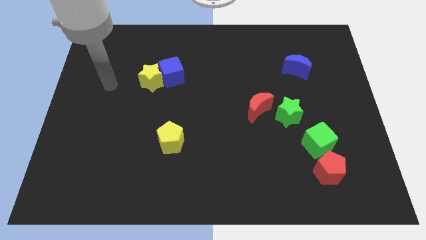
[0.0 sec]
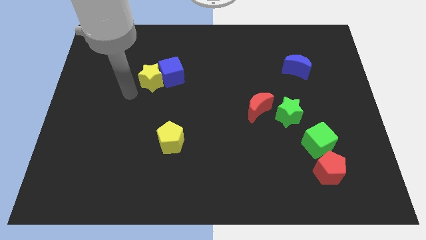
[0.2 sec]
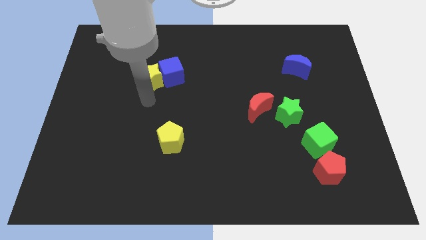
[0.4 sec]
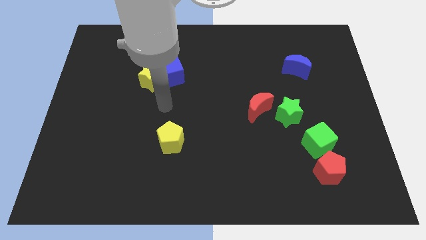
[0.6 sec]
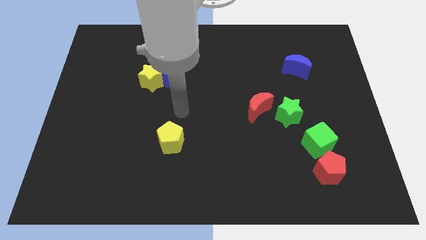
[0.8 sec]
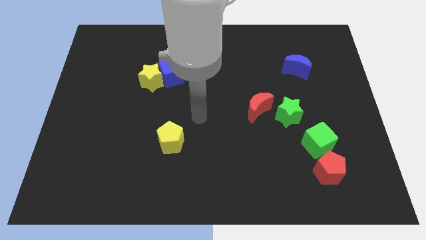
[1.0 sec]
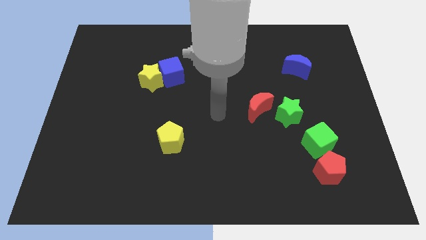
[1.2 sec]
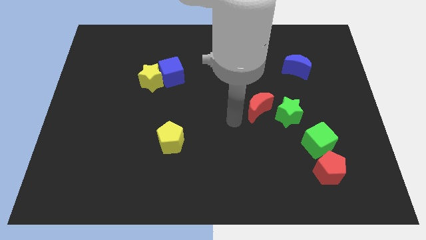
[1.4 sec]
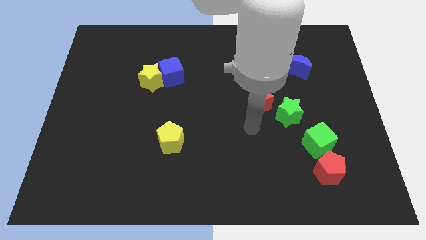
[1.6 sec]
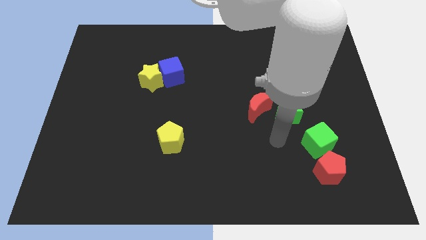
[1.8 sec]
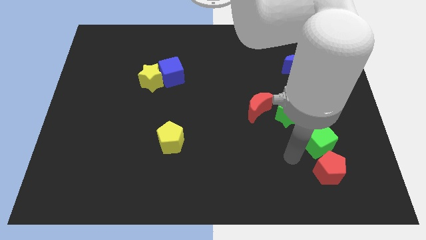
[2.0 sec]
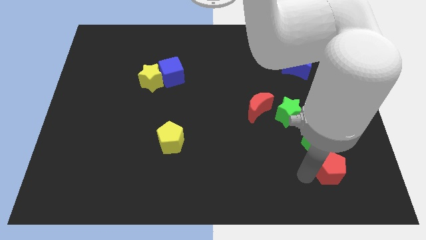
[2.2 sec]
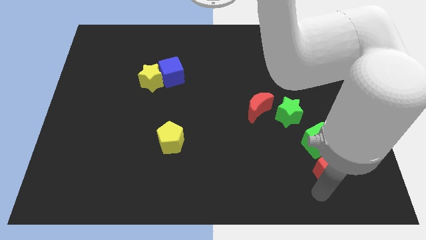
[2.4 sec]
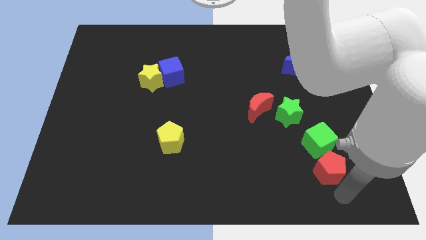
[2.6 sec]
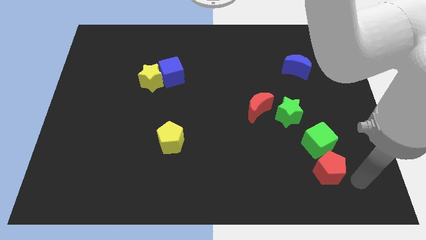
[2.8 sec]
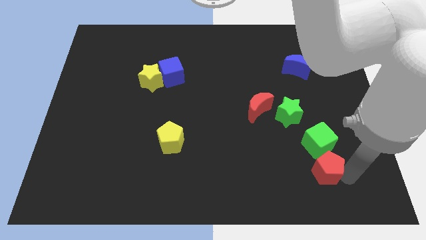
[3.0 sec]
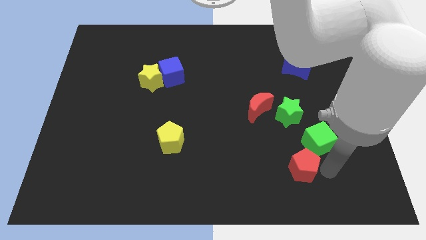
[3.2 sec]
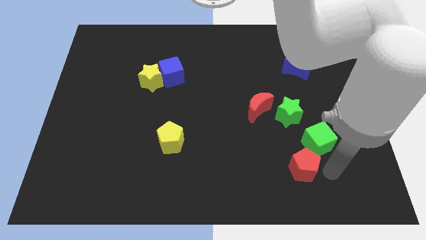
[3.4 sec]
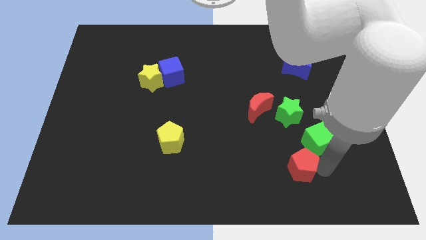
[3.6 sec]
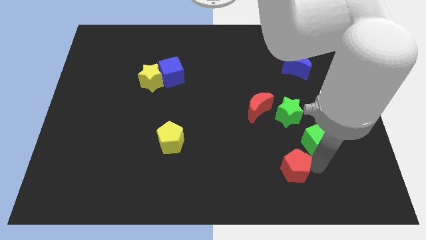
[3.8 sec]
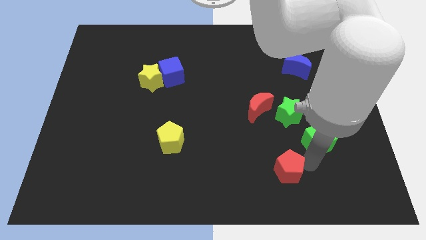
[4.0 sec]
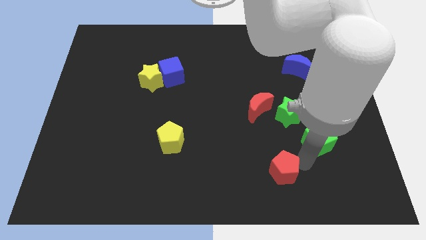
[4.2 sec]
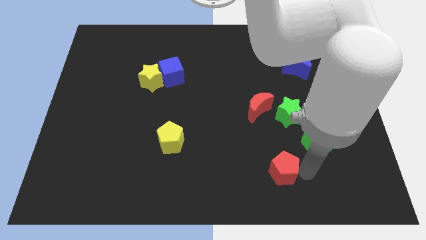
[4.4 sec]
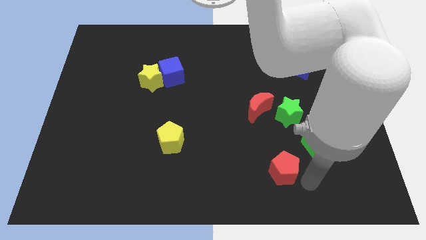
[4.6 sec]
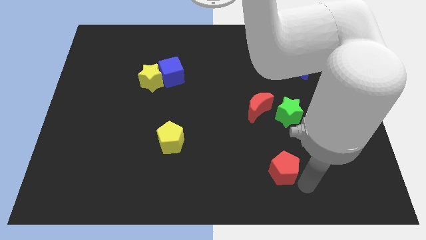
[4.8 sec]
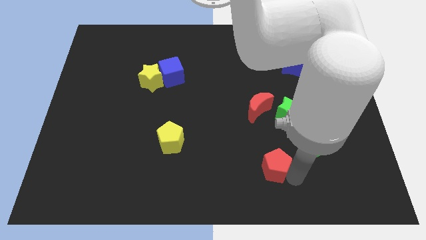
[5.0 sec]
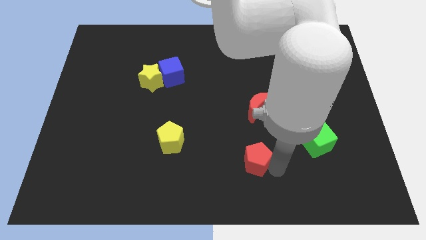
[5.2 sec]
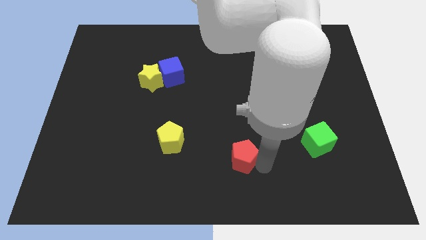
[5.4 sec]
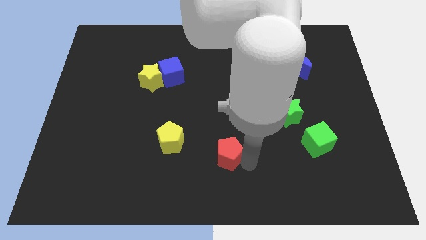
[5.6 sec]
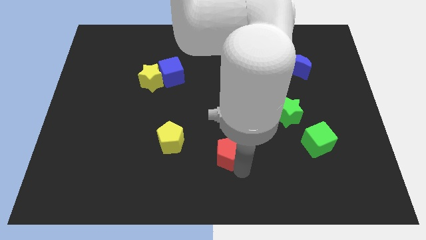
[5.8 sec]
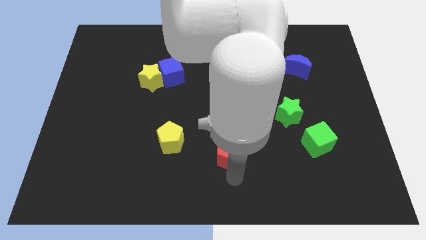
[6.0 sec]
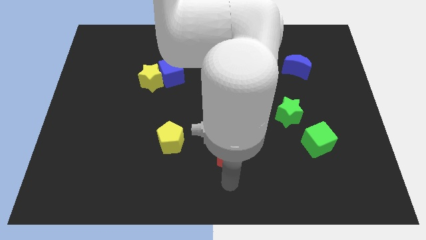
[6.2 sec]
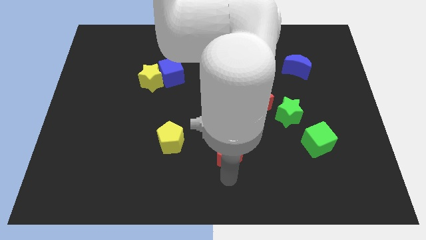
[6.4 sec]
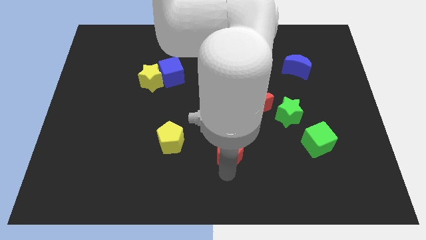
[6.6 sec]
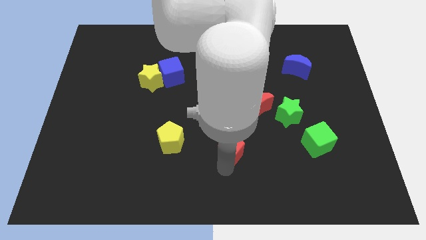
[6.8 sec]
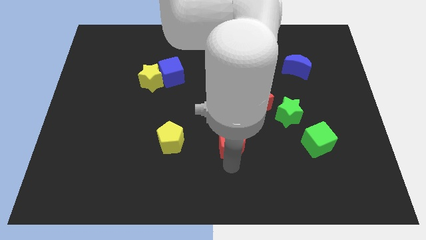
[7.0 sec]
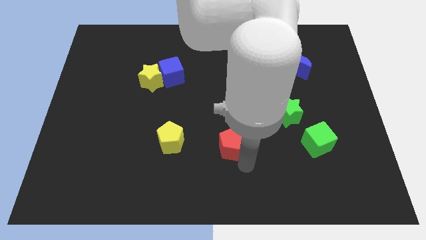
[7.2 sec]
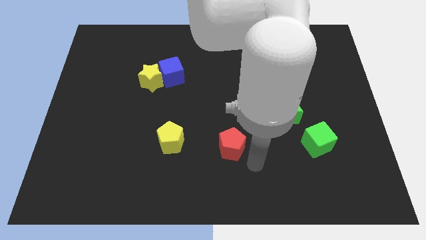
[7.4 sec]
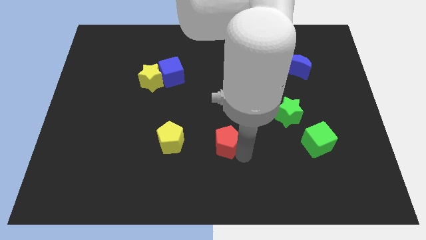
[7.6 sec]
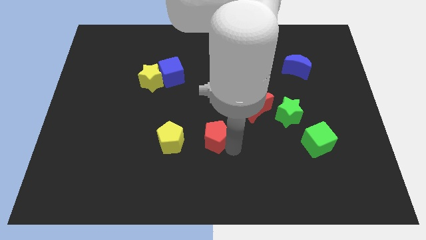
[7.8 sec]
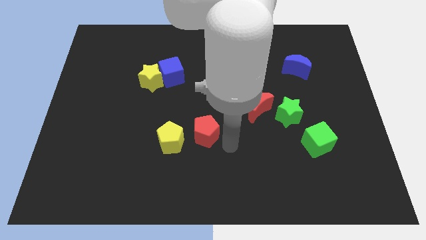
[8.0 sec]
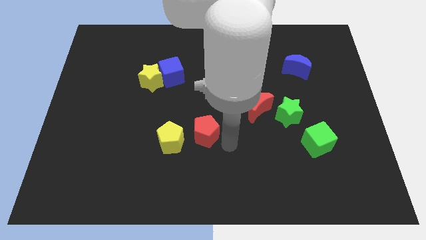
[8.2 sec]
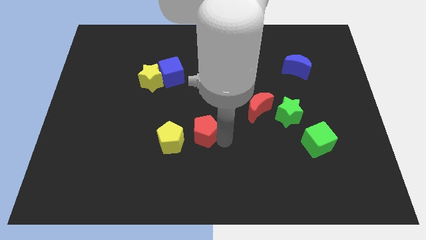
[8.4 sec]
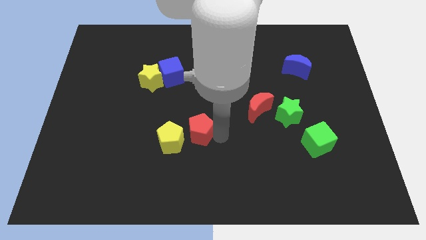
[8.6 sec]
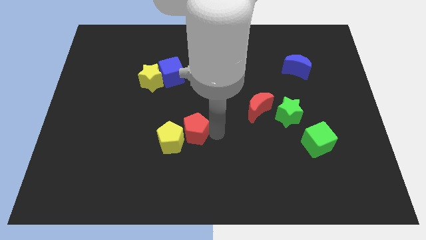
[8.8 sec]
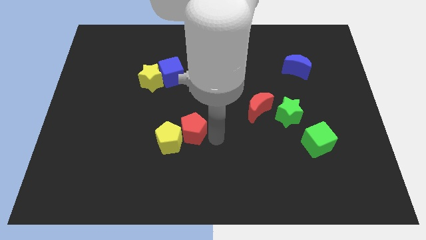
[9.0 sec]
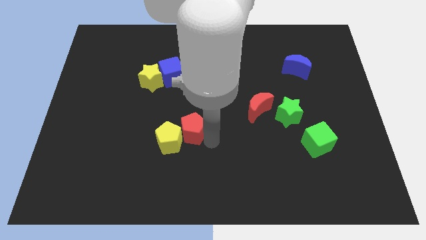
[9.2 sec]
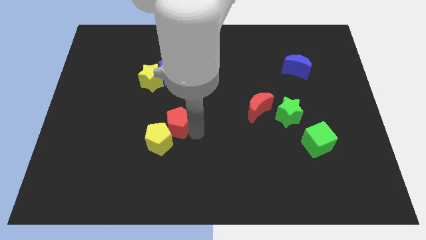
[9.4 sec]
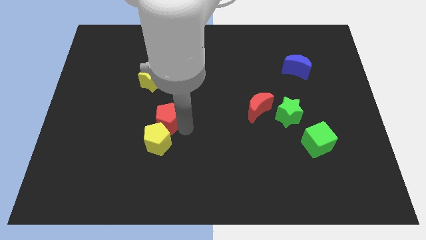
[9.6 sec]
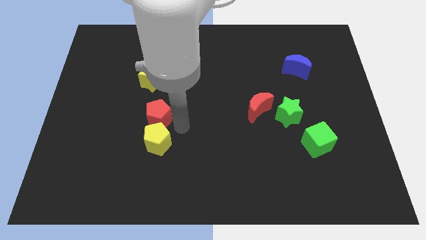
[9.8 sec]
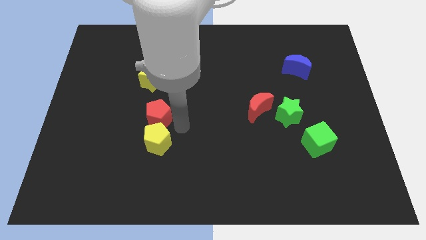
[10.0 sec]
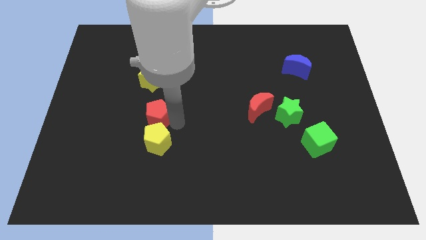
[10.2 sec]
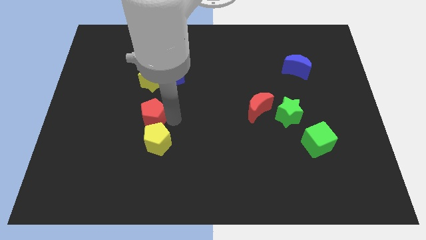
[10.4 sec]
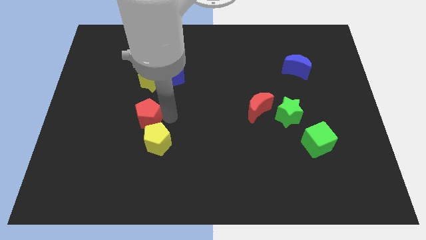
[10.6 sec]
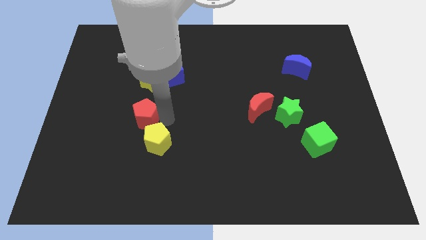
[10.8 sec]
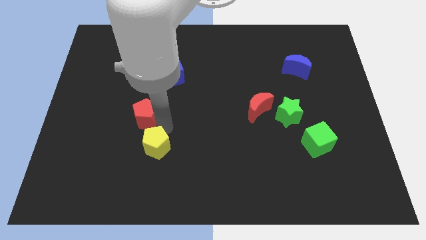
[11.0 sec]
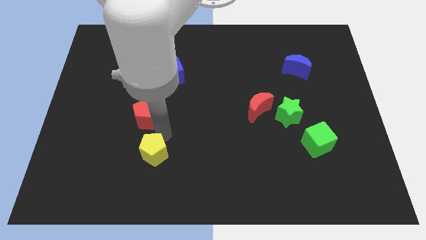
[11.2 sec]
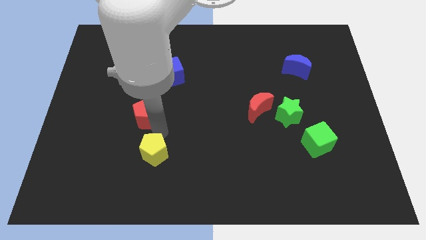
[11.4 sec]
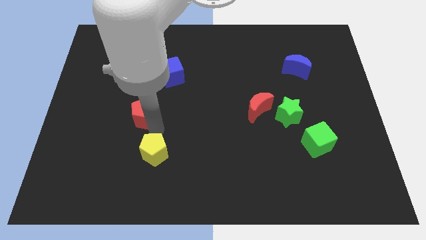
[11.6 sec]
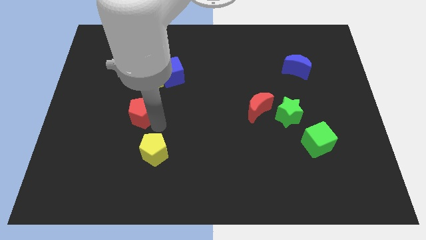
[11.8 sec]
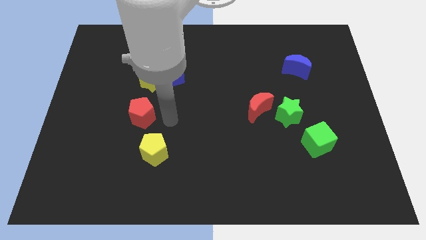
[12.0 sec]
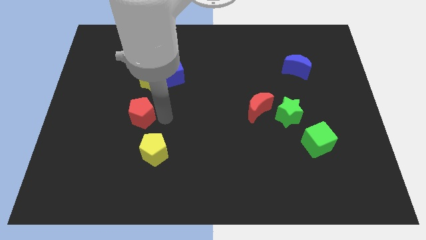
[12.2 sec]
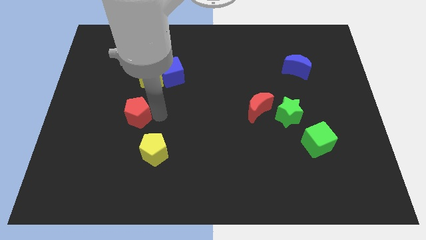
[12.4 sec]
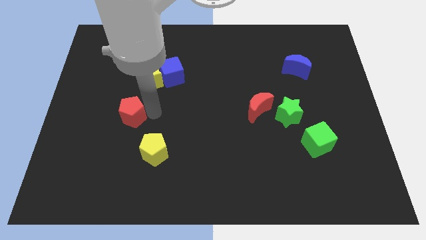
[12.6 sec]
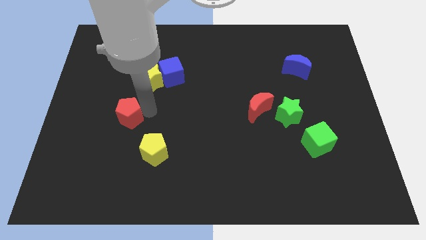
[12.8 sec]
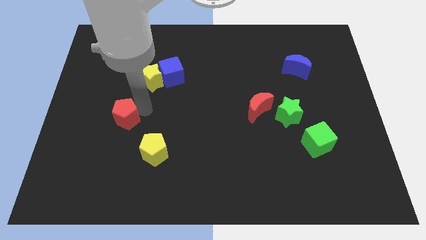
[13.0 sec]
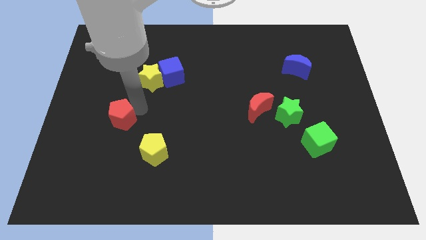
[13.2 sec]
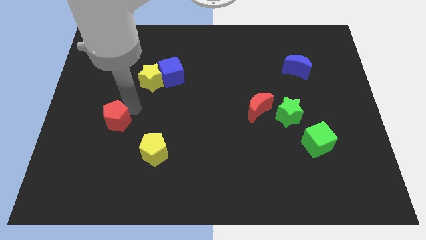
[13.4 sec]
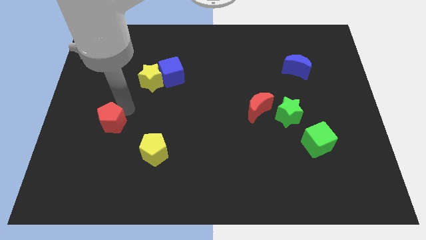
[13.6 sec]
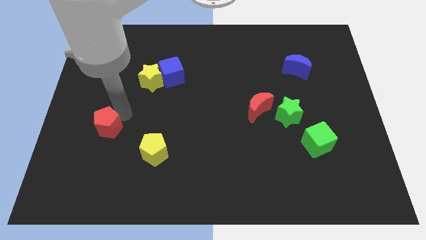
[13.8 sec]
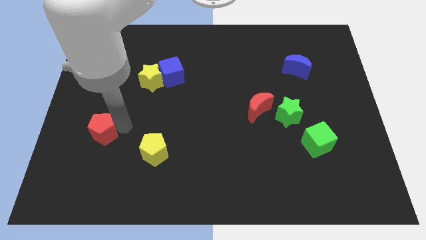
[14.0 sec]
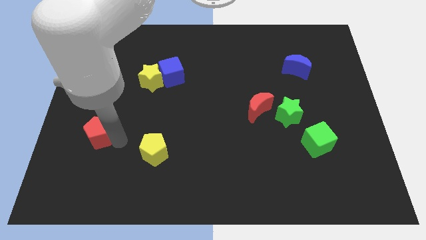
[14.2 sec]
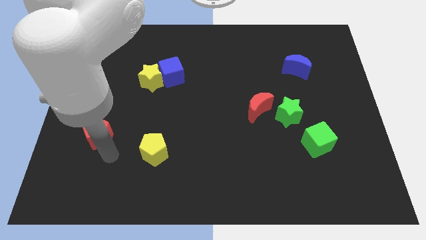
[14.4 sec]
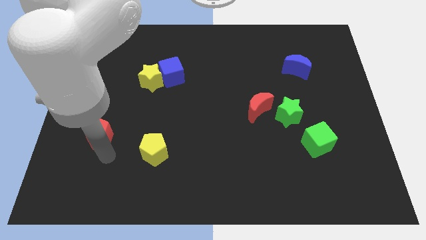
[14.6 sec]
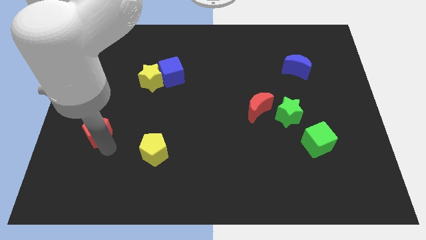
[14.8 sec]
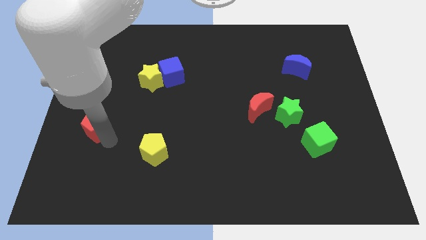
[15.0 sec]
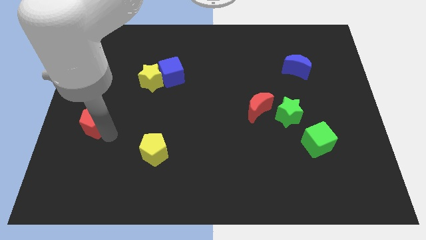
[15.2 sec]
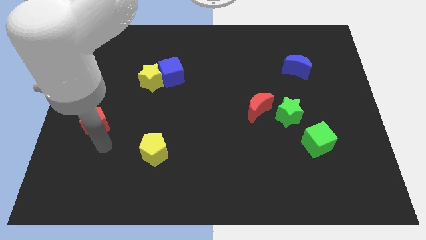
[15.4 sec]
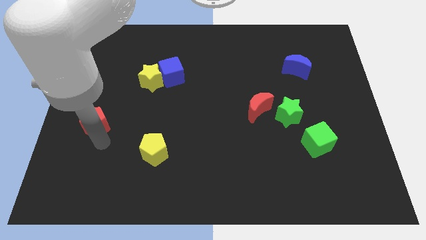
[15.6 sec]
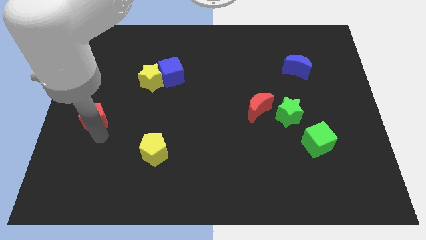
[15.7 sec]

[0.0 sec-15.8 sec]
slide the red pentagon to the center left
